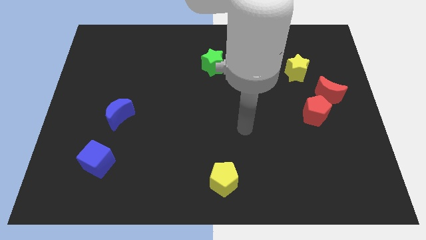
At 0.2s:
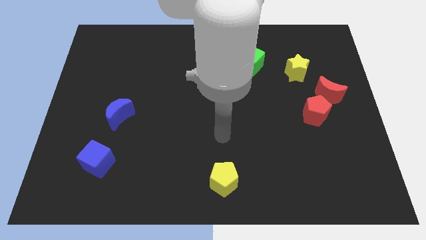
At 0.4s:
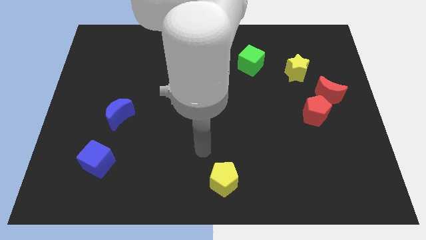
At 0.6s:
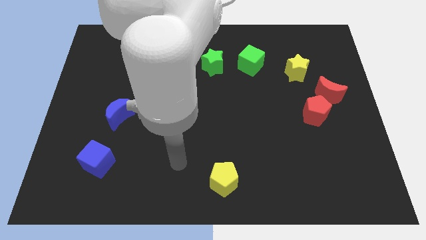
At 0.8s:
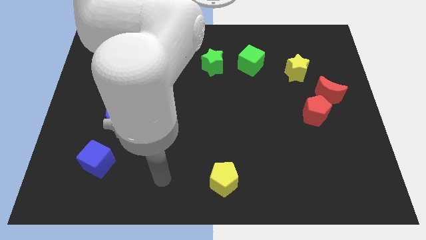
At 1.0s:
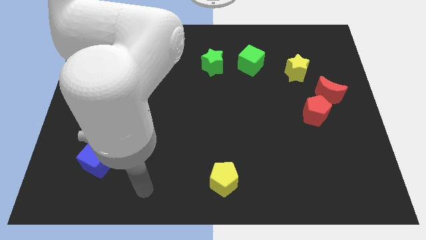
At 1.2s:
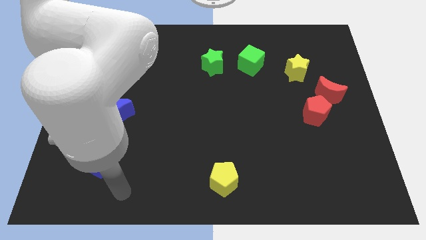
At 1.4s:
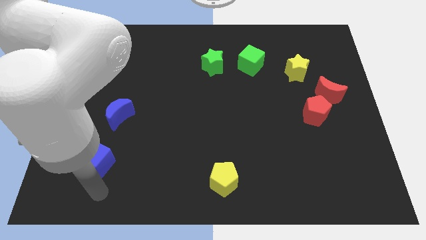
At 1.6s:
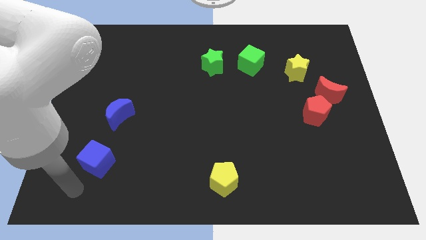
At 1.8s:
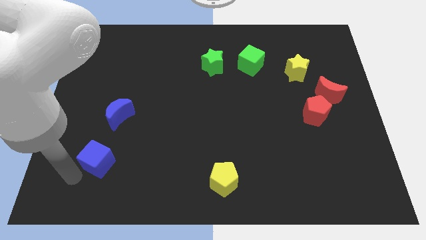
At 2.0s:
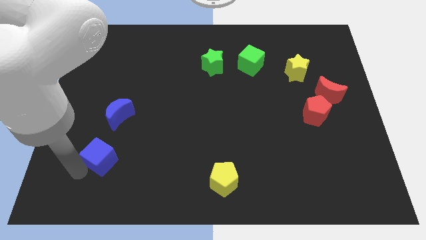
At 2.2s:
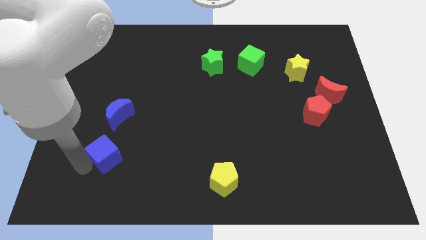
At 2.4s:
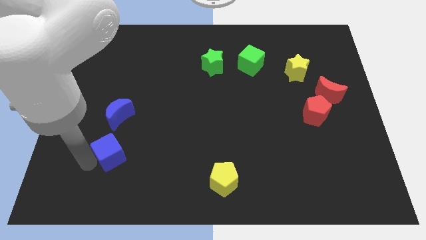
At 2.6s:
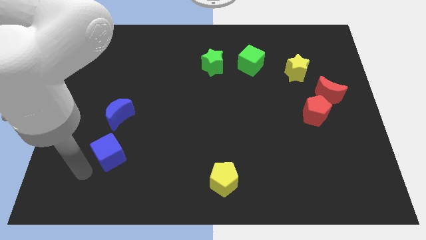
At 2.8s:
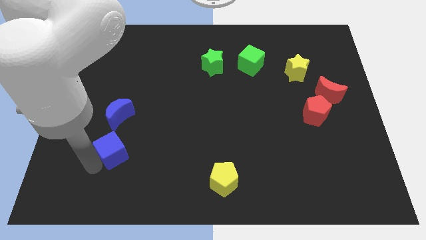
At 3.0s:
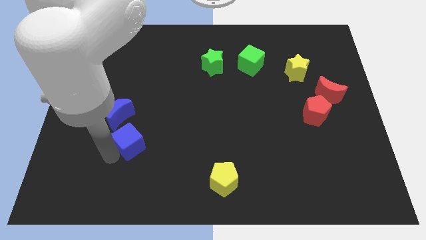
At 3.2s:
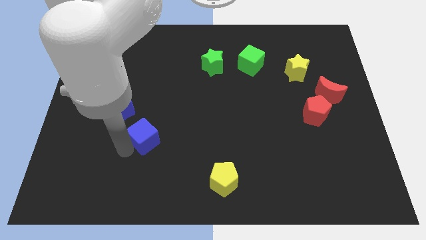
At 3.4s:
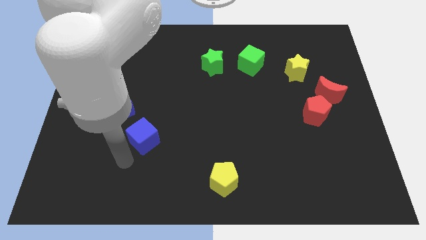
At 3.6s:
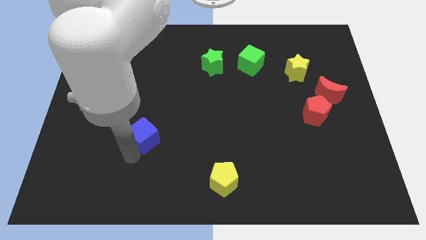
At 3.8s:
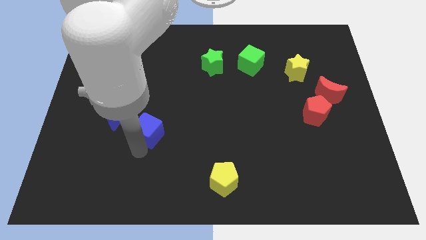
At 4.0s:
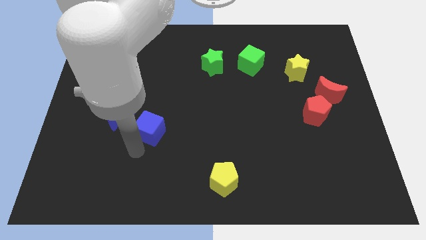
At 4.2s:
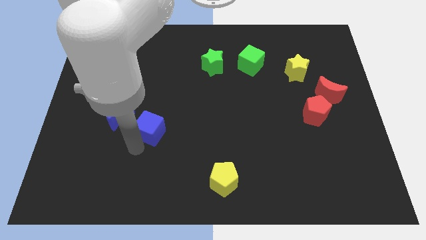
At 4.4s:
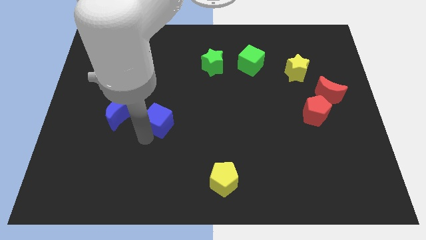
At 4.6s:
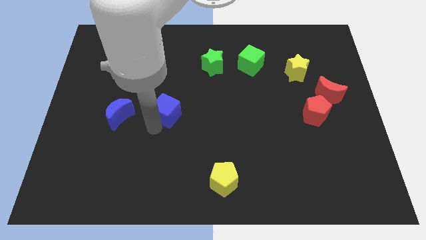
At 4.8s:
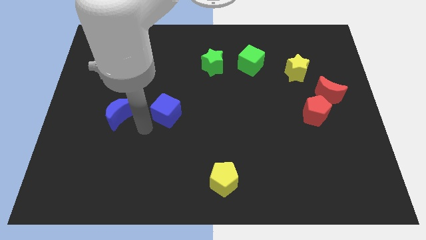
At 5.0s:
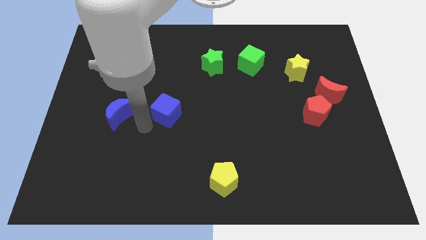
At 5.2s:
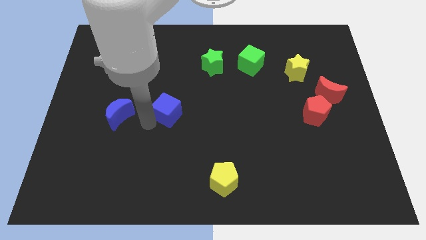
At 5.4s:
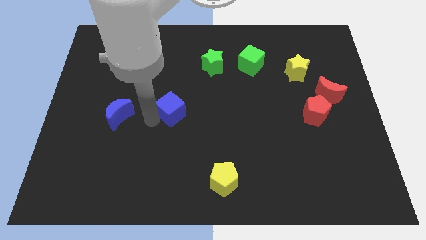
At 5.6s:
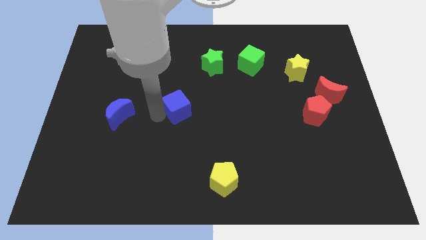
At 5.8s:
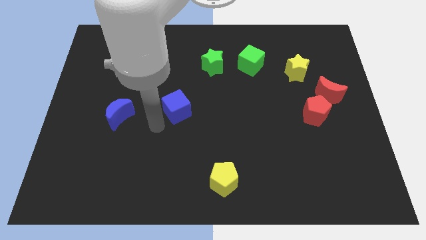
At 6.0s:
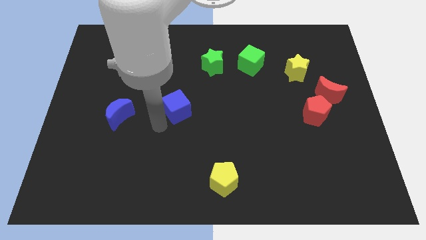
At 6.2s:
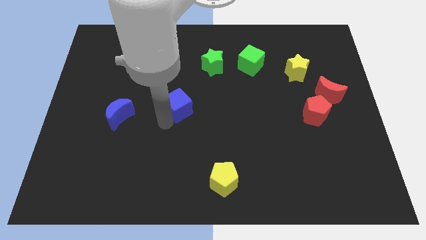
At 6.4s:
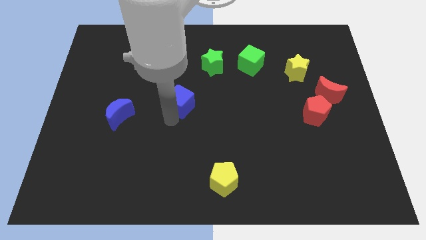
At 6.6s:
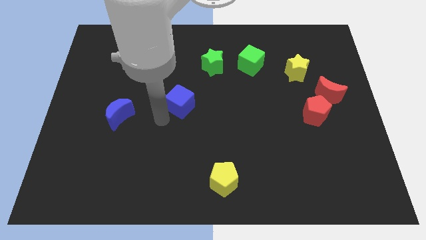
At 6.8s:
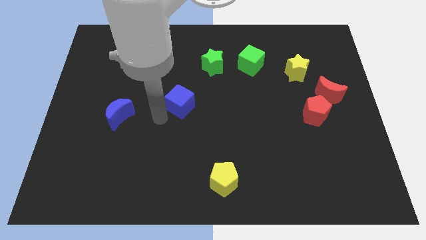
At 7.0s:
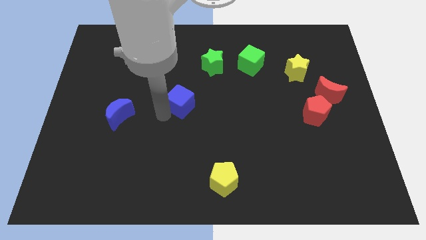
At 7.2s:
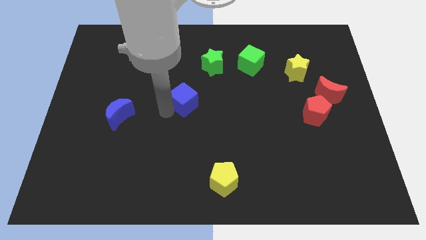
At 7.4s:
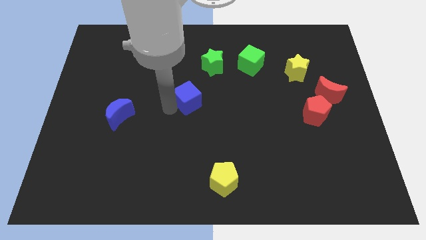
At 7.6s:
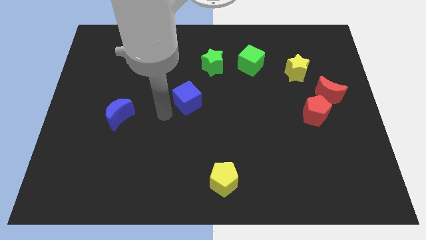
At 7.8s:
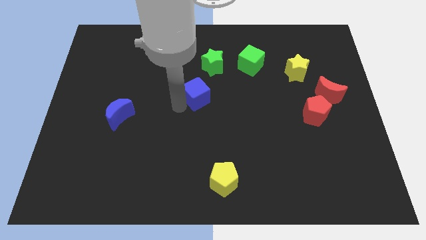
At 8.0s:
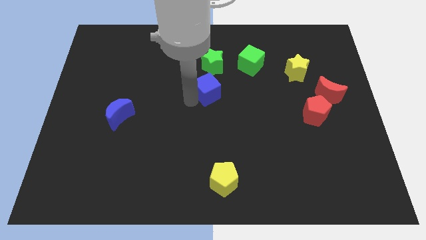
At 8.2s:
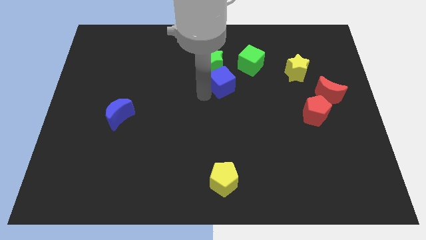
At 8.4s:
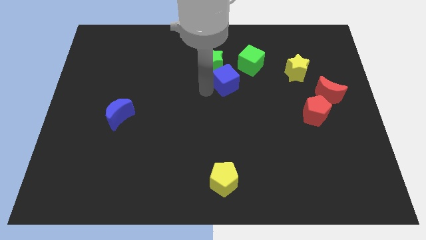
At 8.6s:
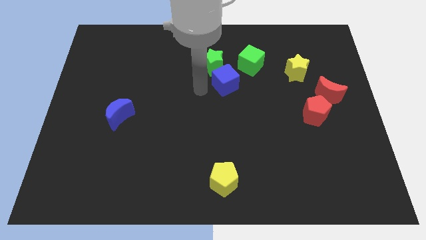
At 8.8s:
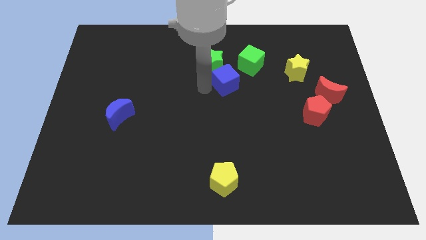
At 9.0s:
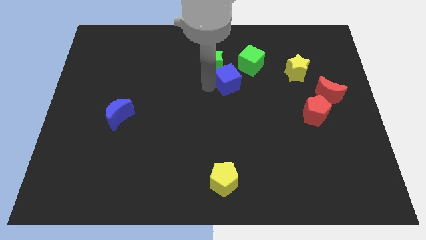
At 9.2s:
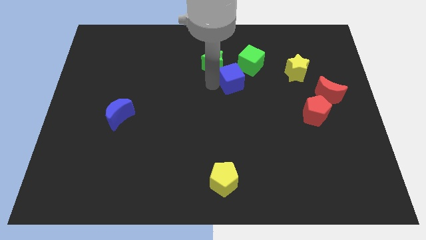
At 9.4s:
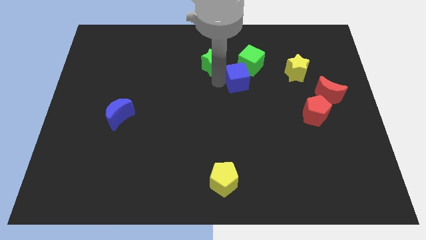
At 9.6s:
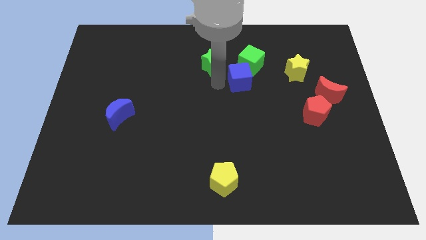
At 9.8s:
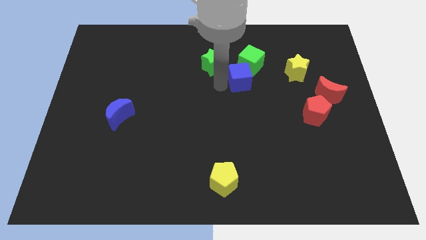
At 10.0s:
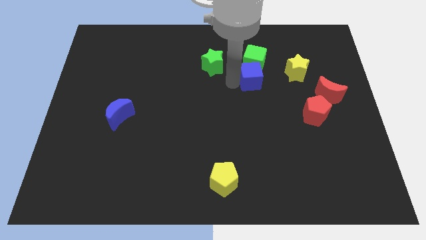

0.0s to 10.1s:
slide the blue cube to the right side of the green star

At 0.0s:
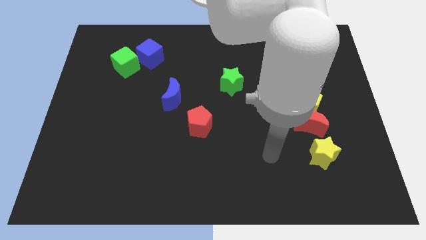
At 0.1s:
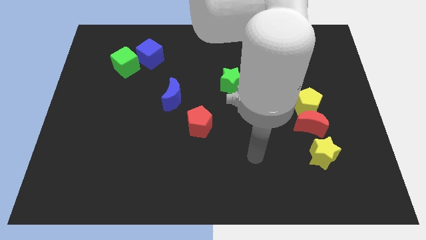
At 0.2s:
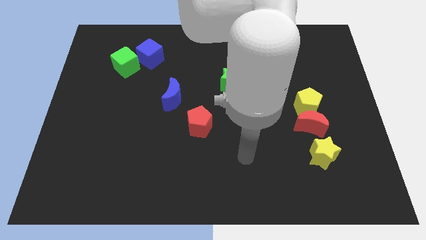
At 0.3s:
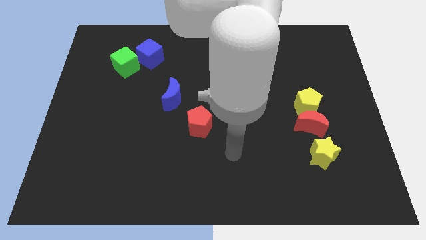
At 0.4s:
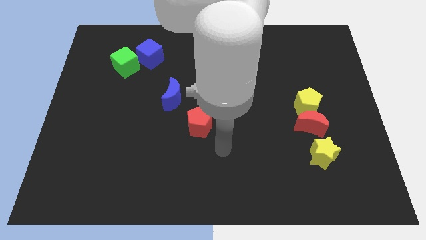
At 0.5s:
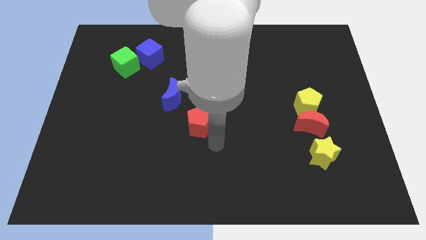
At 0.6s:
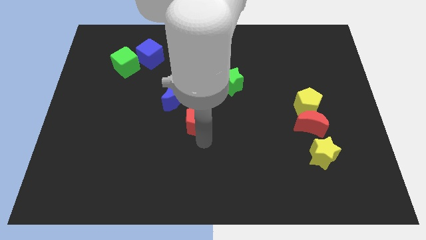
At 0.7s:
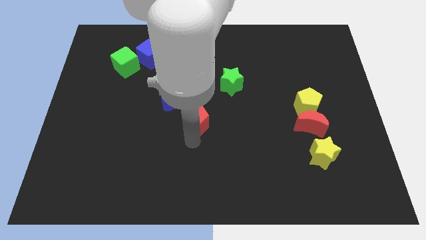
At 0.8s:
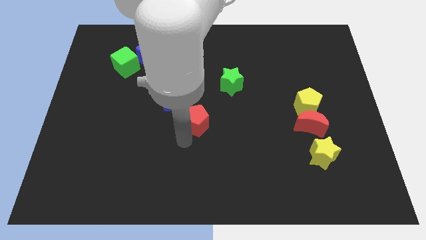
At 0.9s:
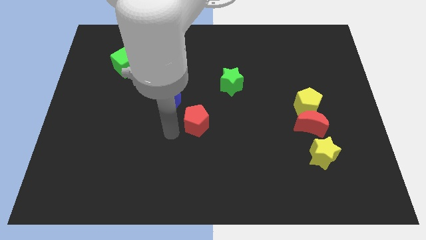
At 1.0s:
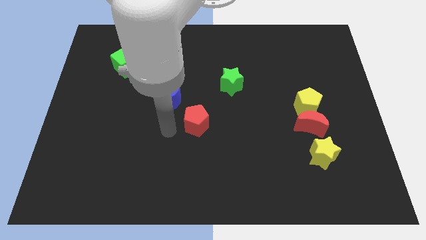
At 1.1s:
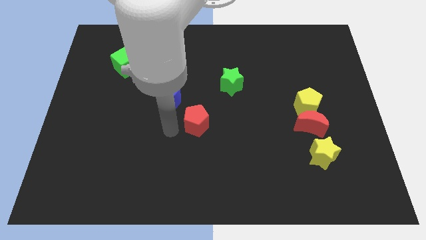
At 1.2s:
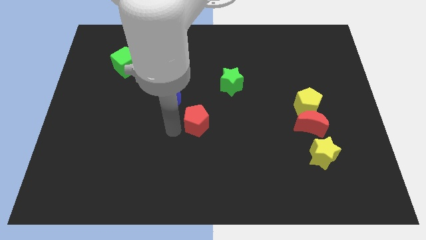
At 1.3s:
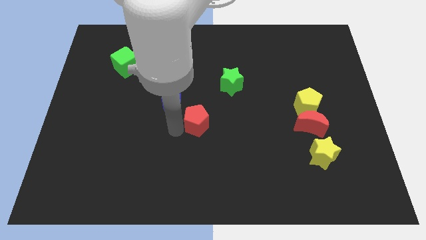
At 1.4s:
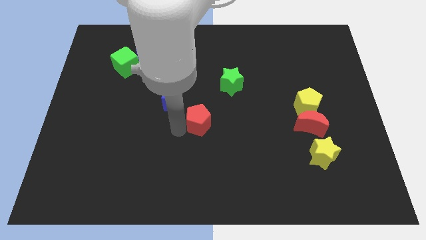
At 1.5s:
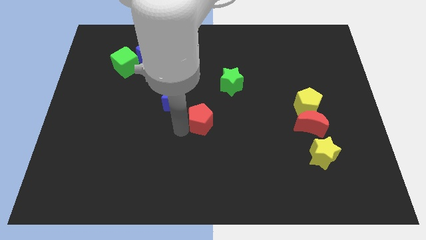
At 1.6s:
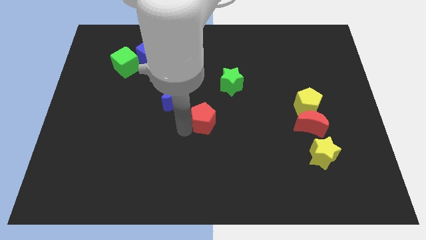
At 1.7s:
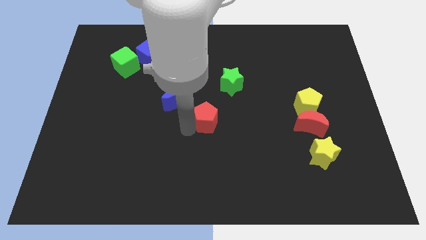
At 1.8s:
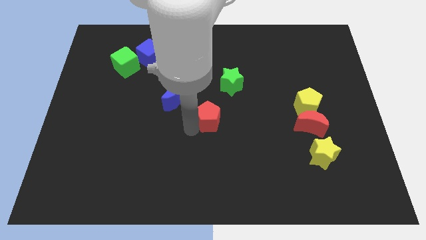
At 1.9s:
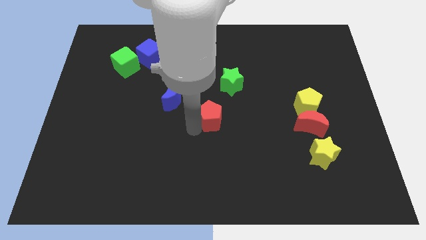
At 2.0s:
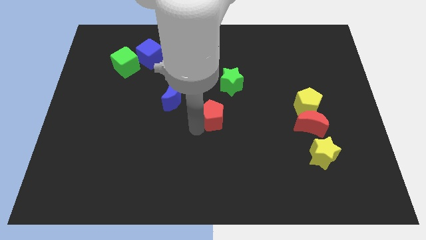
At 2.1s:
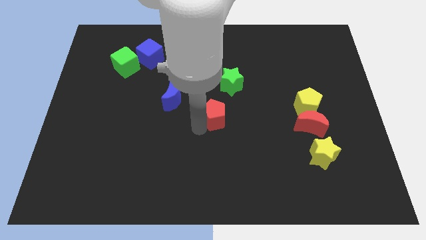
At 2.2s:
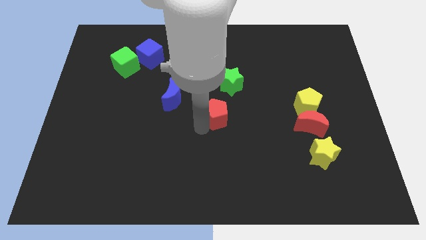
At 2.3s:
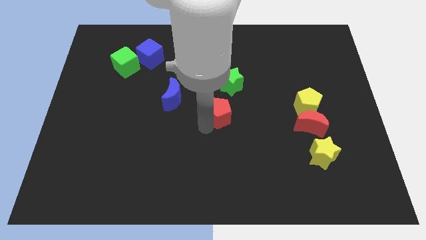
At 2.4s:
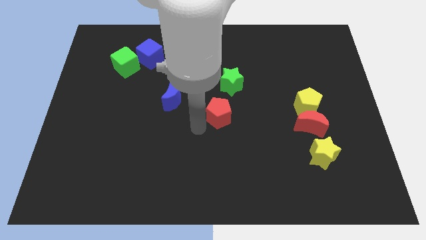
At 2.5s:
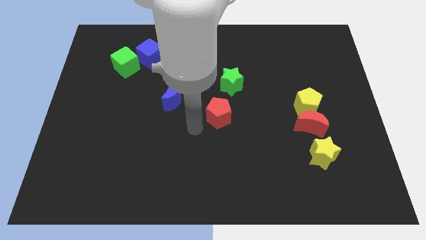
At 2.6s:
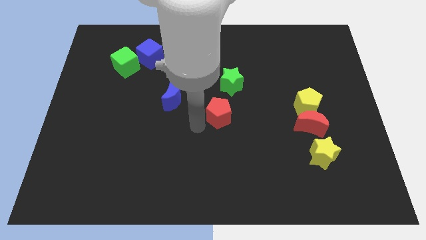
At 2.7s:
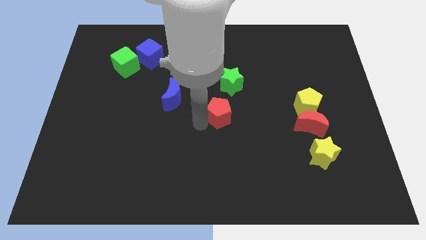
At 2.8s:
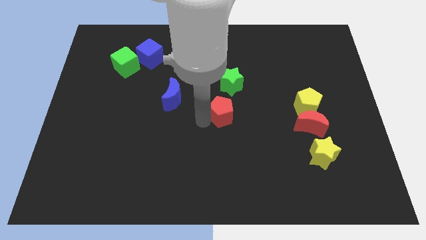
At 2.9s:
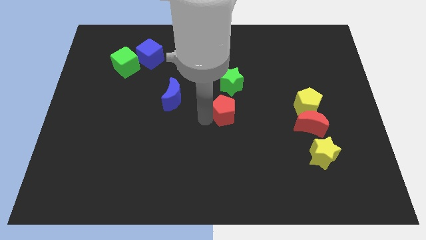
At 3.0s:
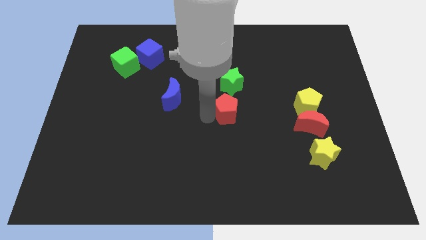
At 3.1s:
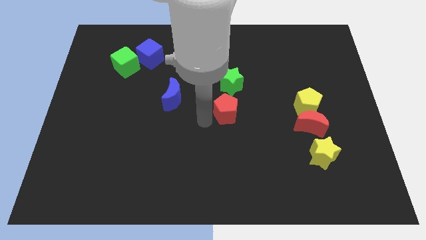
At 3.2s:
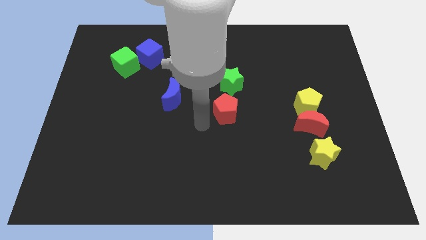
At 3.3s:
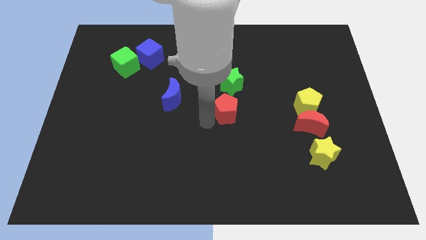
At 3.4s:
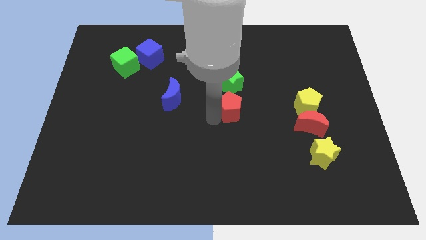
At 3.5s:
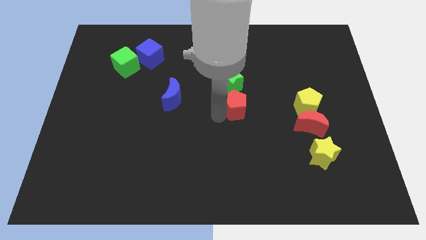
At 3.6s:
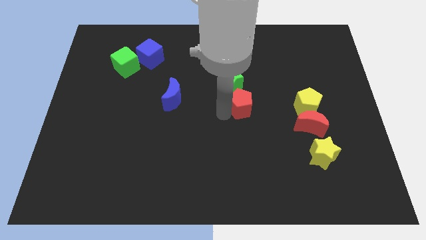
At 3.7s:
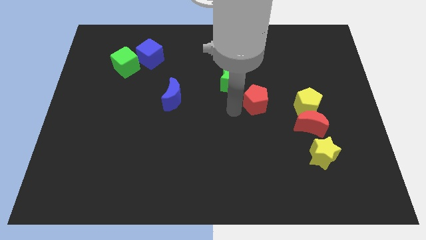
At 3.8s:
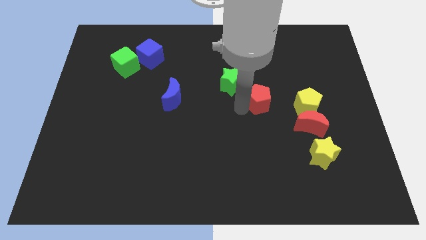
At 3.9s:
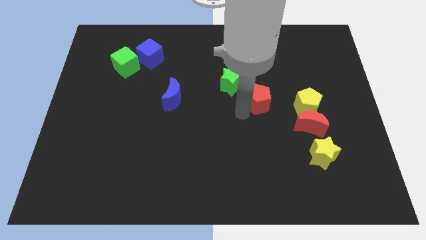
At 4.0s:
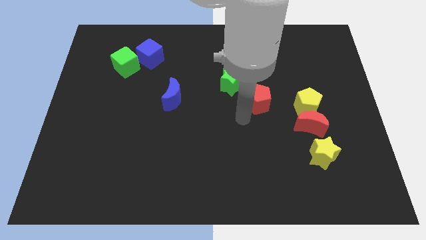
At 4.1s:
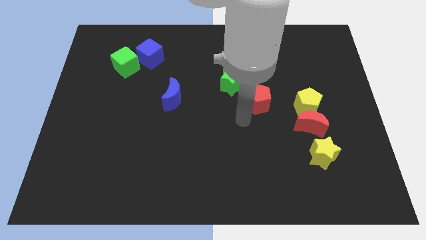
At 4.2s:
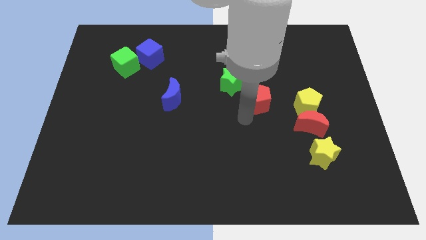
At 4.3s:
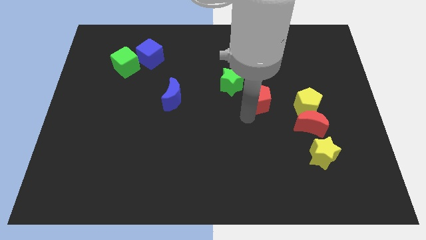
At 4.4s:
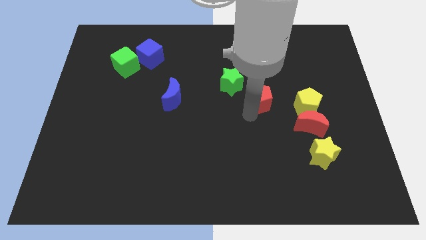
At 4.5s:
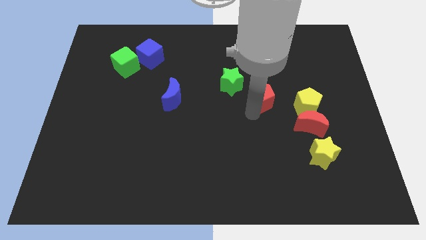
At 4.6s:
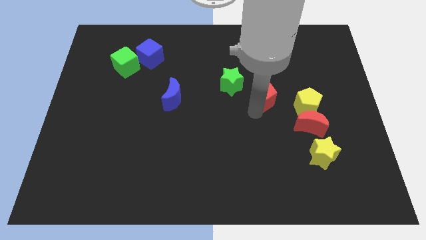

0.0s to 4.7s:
push the red pentagon to the right side of the green star
